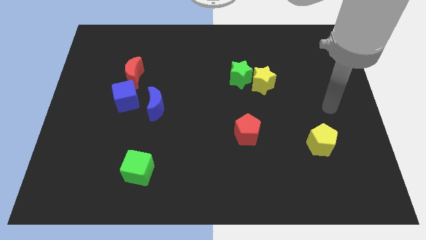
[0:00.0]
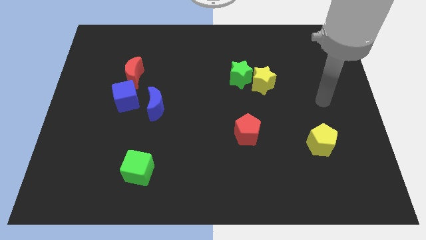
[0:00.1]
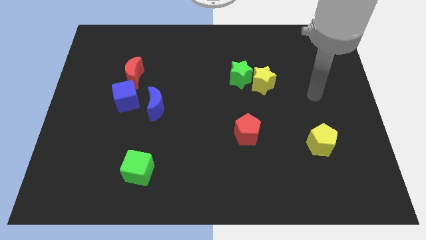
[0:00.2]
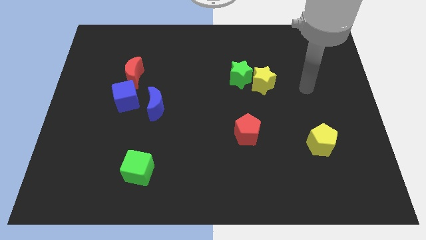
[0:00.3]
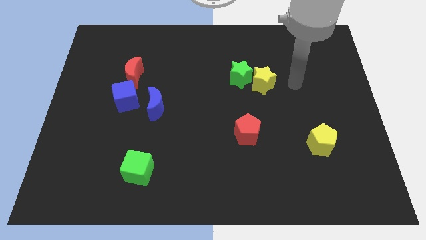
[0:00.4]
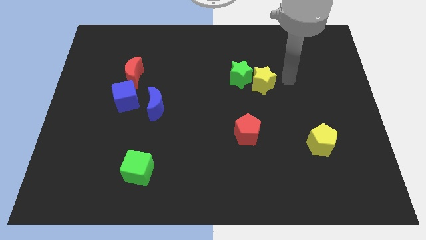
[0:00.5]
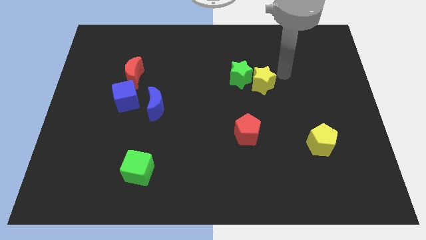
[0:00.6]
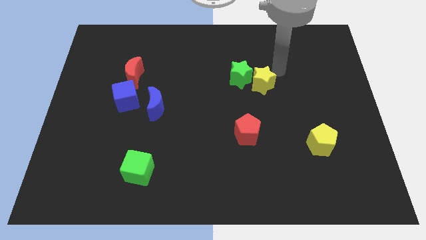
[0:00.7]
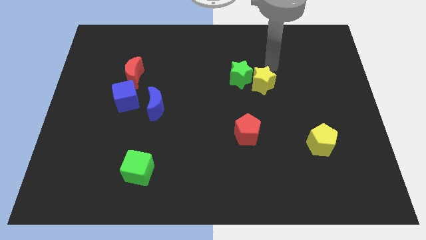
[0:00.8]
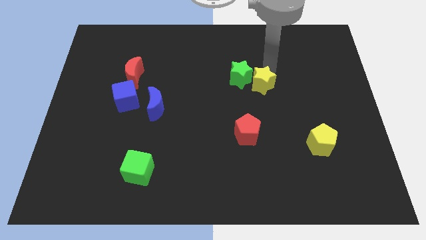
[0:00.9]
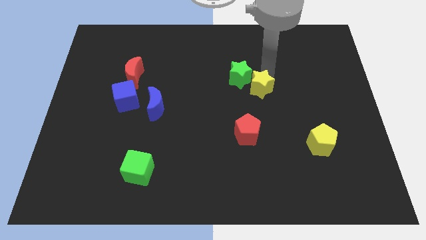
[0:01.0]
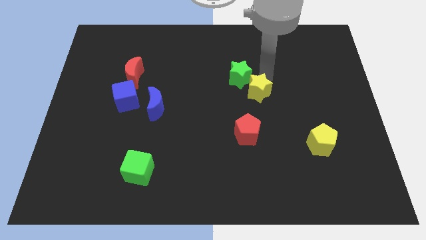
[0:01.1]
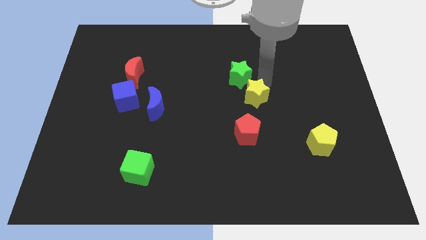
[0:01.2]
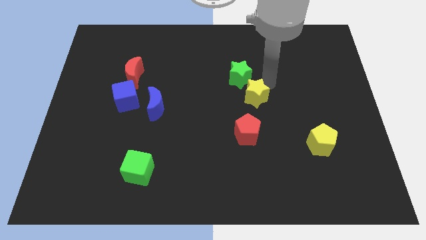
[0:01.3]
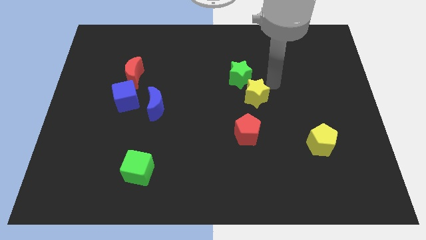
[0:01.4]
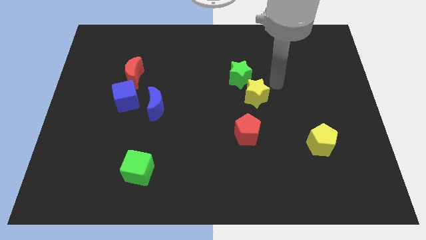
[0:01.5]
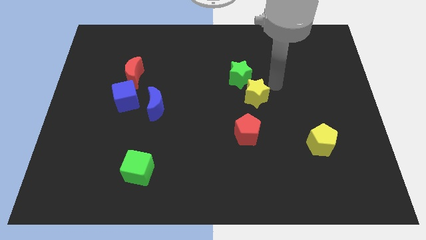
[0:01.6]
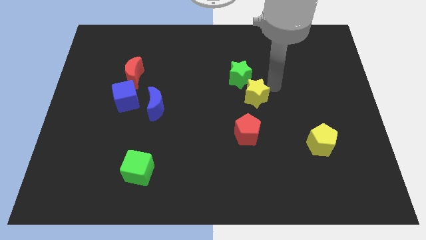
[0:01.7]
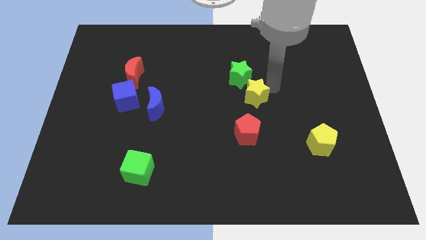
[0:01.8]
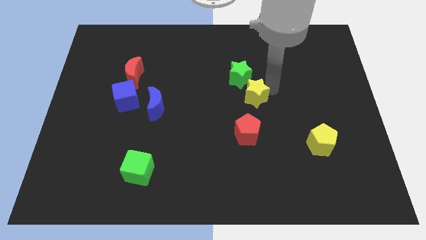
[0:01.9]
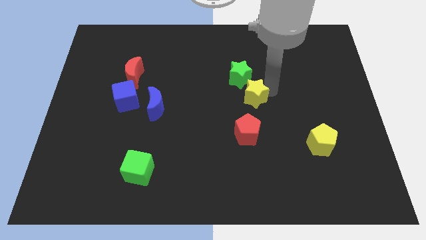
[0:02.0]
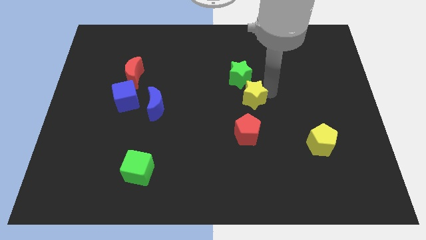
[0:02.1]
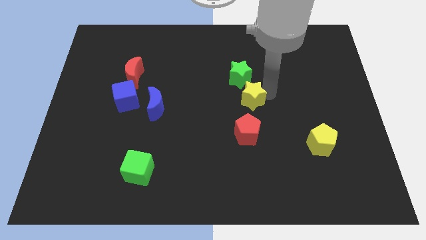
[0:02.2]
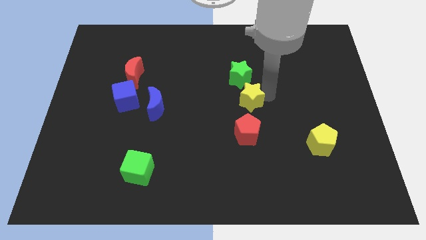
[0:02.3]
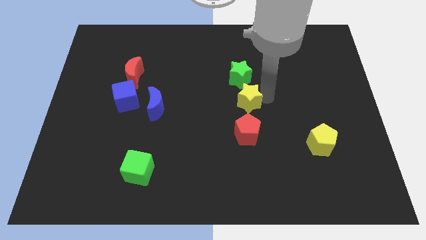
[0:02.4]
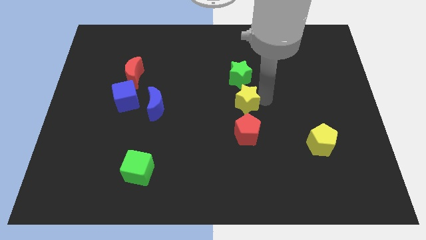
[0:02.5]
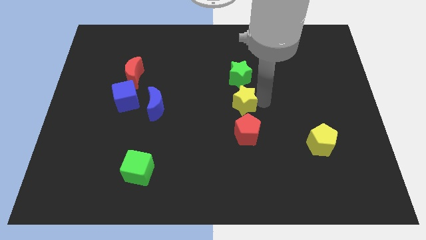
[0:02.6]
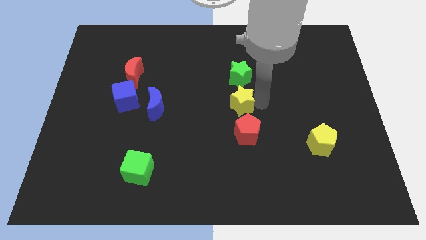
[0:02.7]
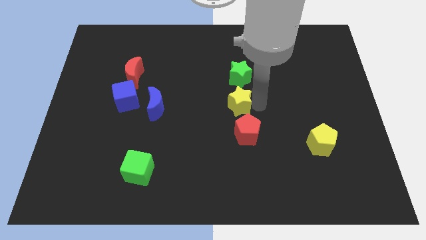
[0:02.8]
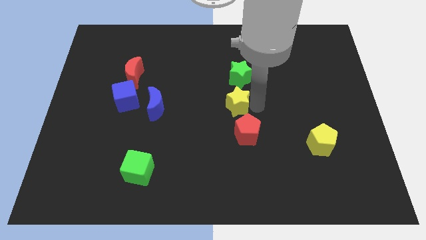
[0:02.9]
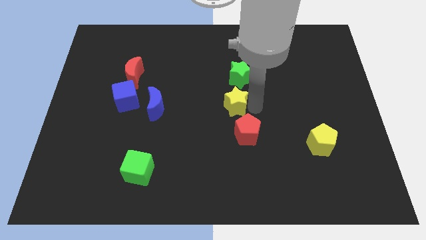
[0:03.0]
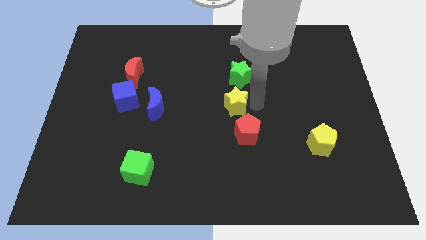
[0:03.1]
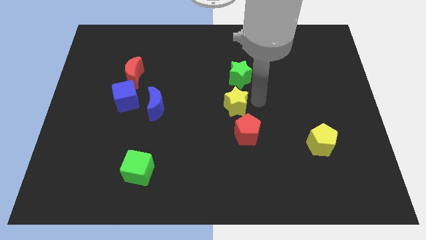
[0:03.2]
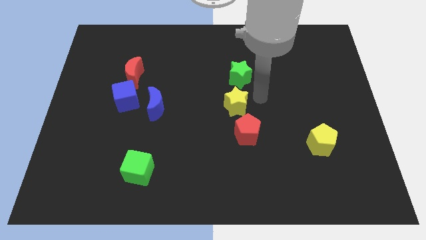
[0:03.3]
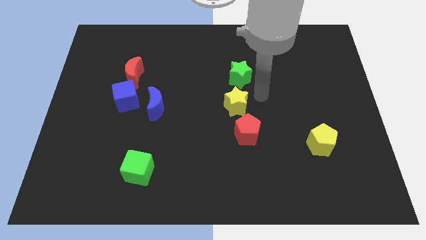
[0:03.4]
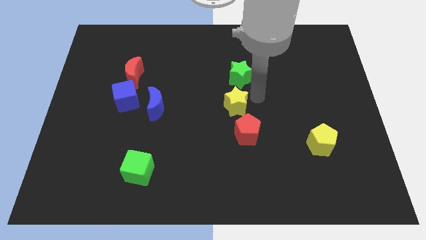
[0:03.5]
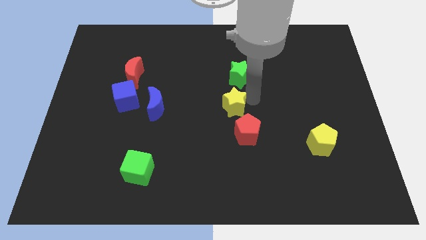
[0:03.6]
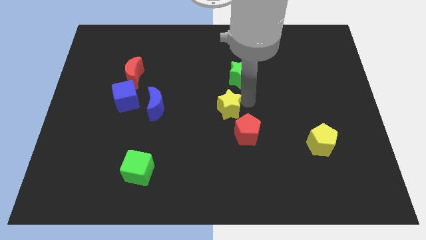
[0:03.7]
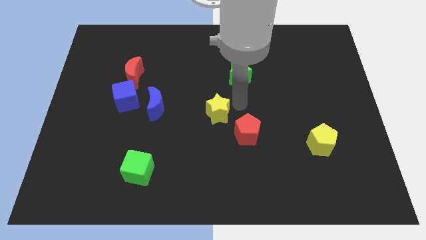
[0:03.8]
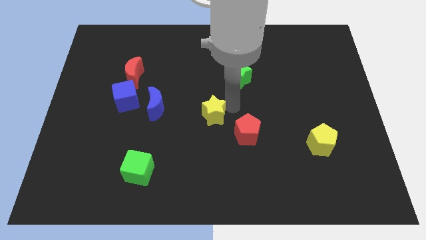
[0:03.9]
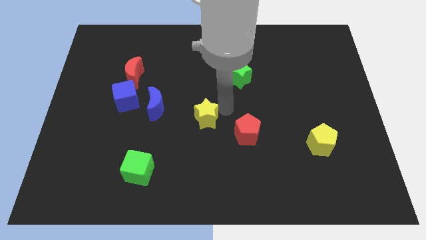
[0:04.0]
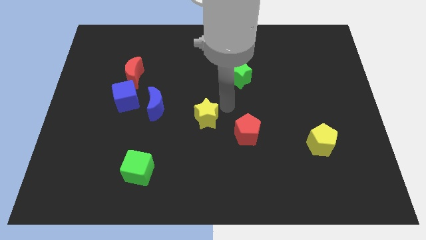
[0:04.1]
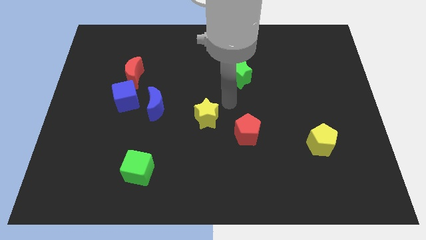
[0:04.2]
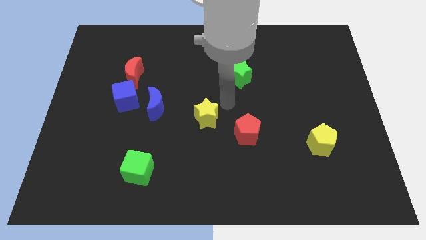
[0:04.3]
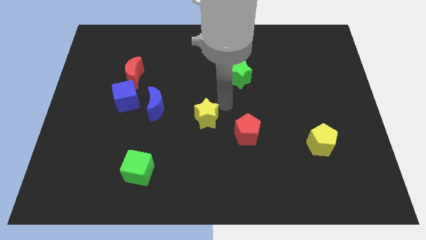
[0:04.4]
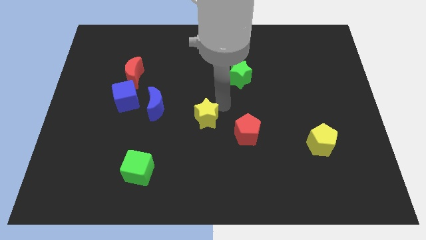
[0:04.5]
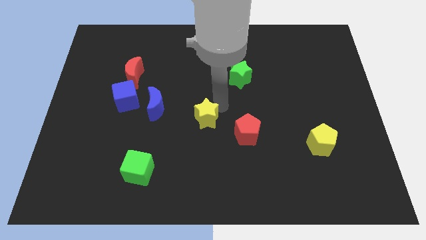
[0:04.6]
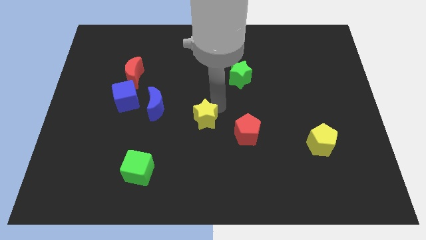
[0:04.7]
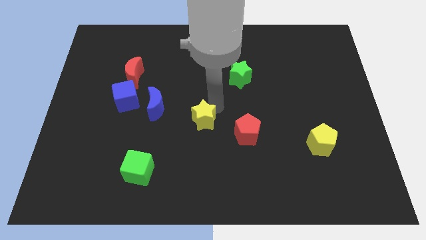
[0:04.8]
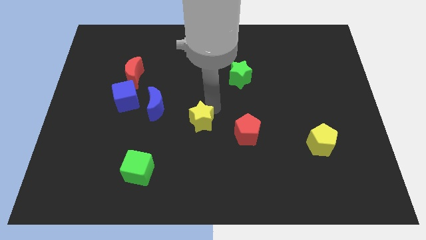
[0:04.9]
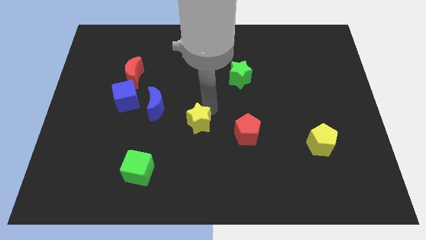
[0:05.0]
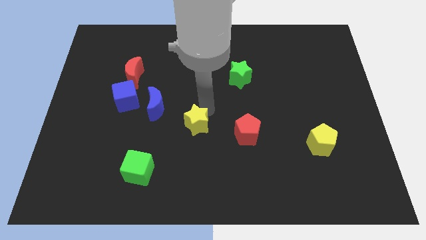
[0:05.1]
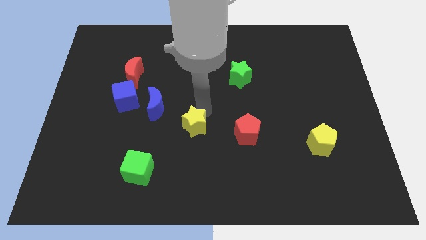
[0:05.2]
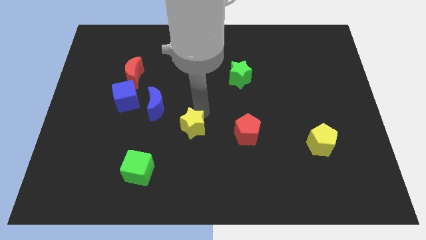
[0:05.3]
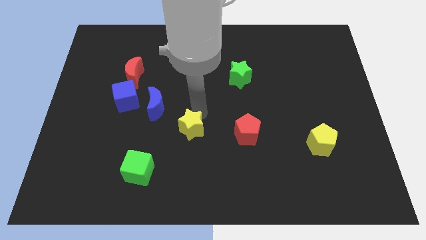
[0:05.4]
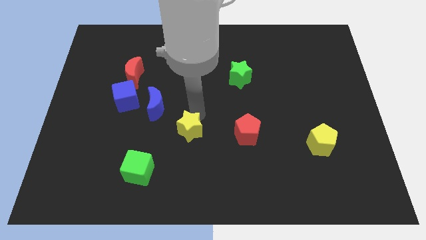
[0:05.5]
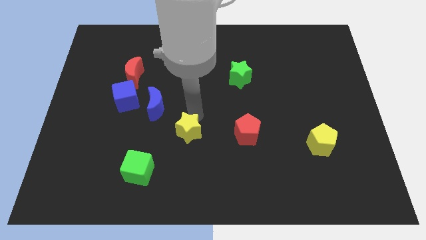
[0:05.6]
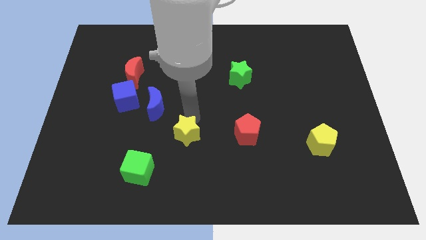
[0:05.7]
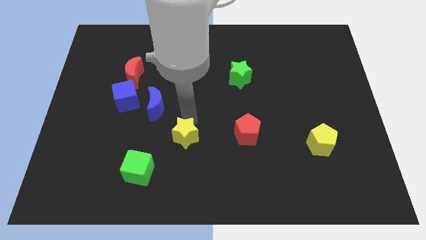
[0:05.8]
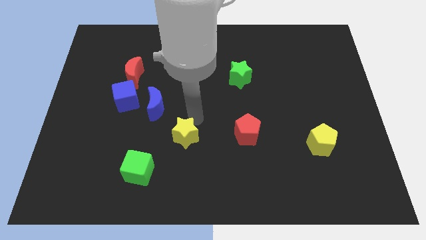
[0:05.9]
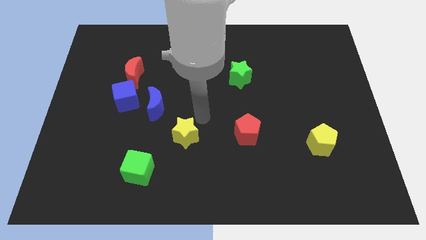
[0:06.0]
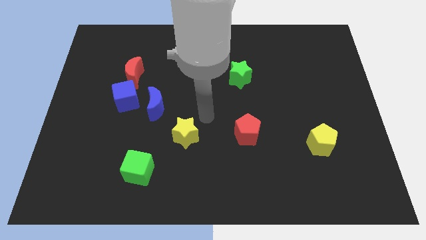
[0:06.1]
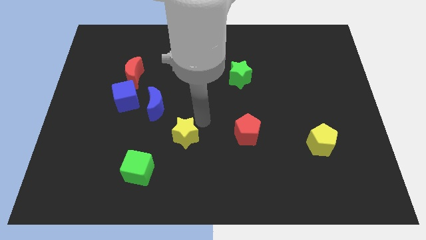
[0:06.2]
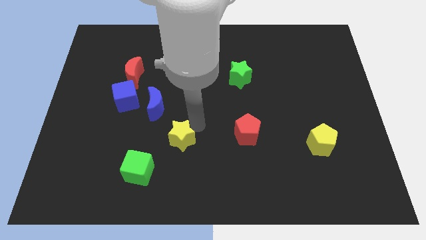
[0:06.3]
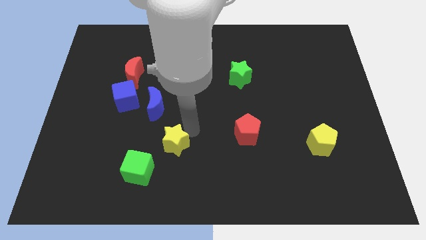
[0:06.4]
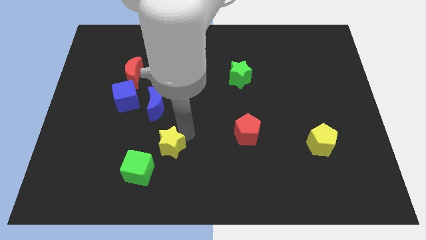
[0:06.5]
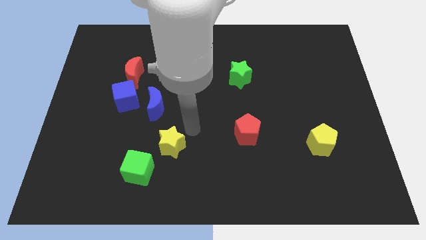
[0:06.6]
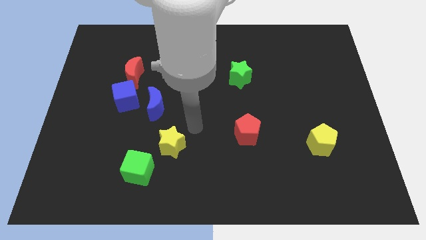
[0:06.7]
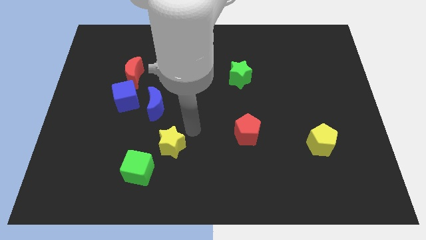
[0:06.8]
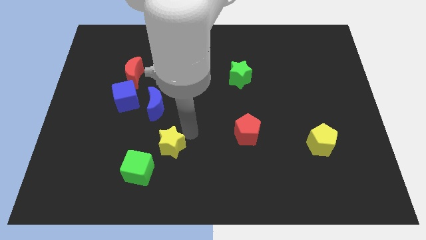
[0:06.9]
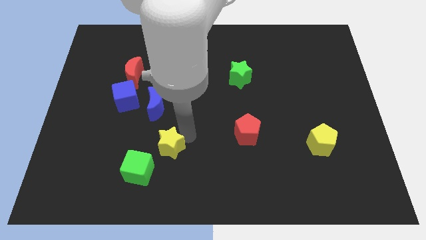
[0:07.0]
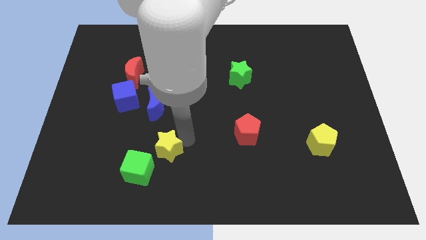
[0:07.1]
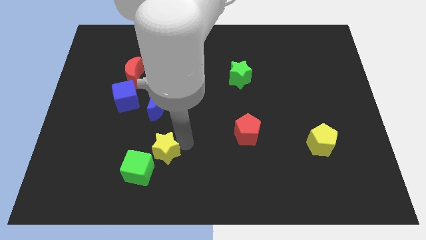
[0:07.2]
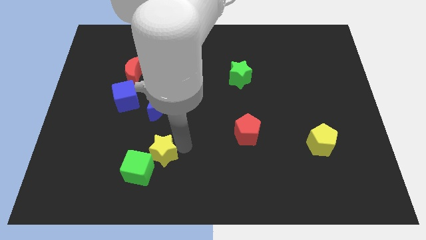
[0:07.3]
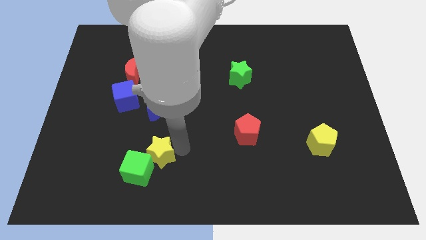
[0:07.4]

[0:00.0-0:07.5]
slide the yellow star to the green cube

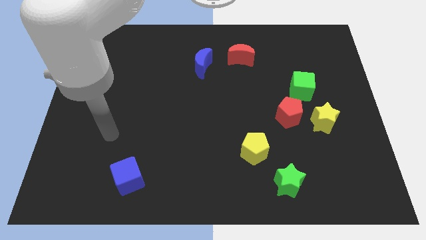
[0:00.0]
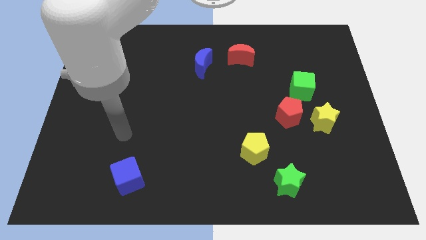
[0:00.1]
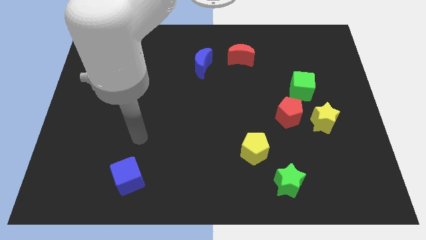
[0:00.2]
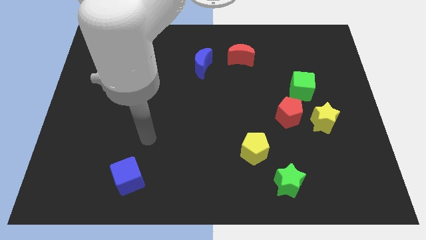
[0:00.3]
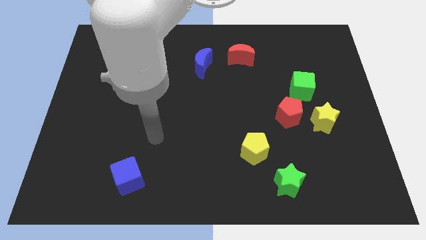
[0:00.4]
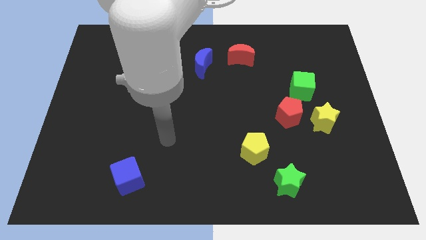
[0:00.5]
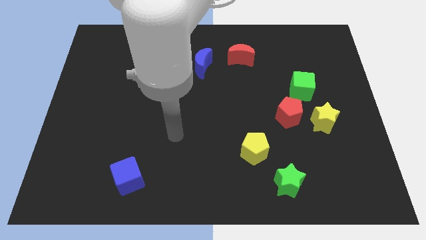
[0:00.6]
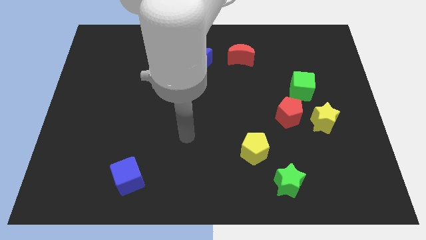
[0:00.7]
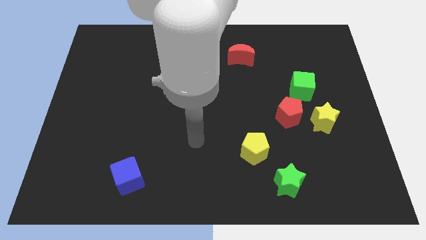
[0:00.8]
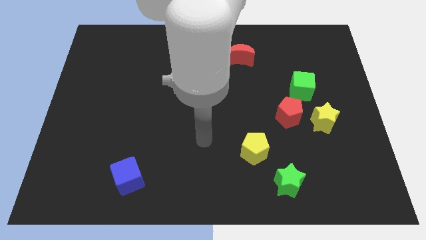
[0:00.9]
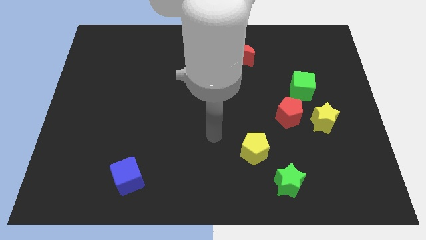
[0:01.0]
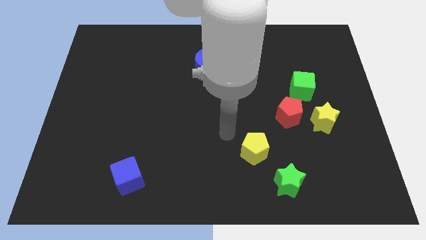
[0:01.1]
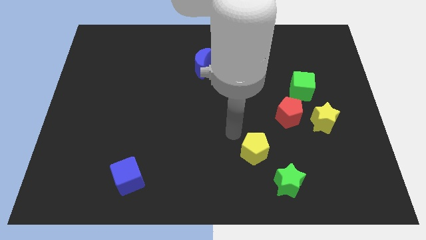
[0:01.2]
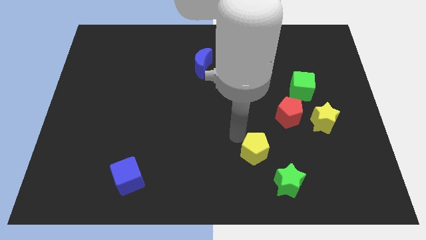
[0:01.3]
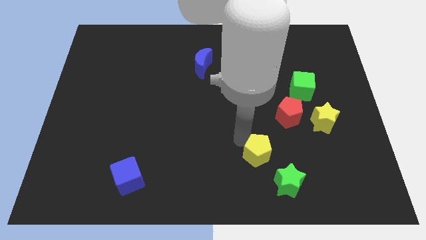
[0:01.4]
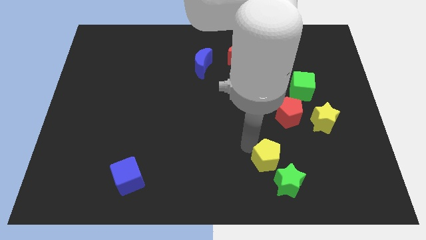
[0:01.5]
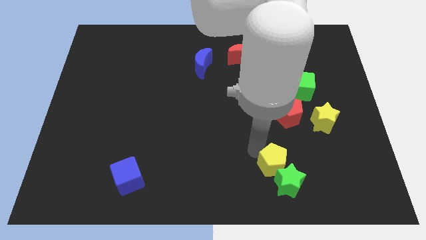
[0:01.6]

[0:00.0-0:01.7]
slide the yellow pentagon close to the green star
